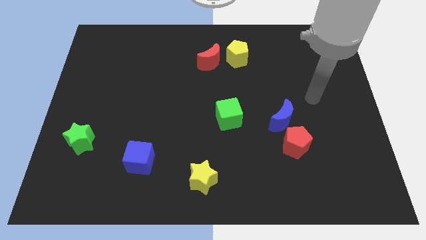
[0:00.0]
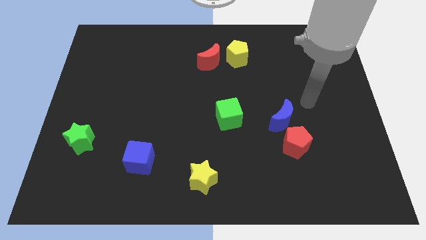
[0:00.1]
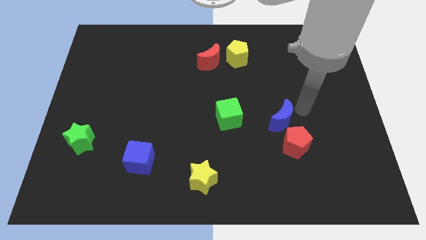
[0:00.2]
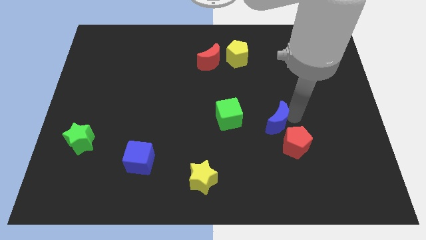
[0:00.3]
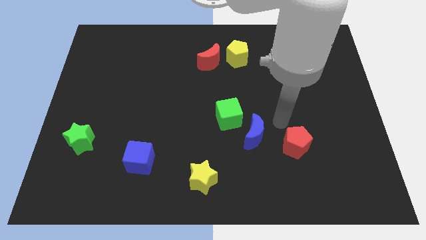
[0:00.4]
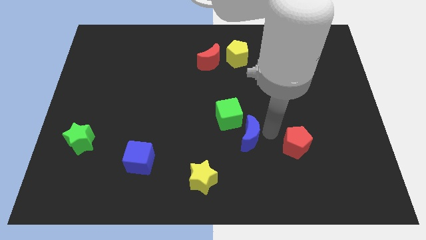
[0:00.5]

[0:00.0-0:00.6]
pull the red pentagon apart from the blue moon

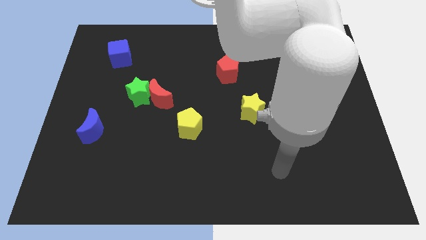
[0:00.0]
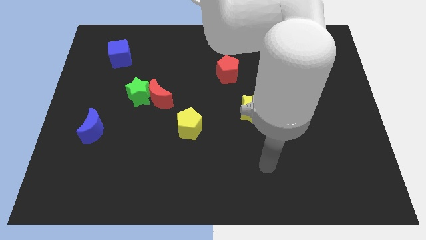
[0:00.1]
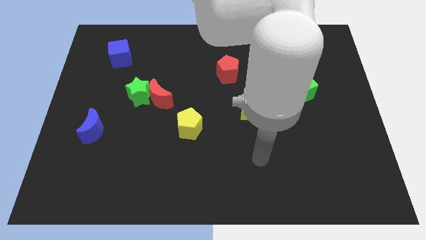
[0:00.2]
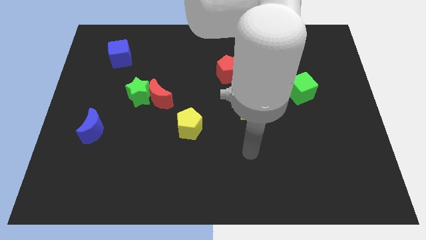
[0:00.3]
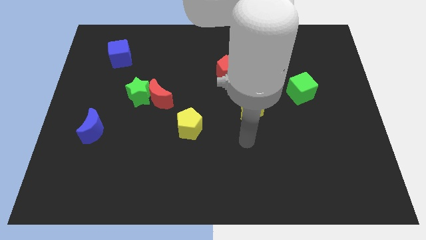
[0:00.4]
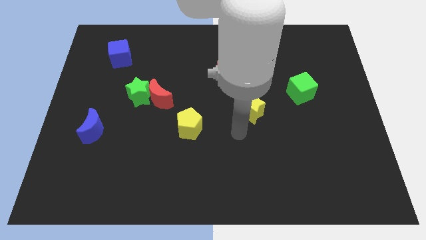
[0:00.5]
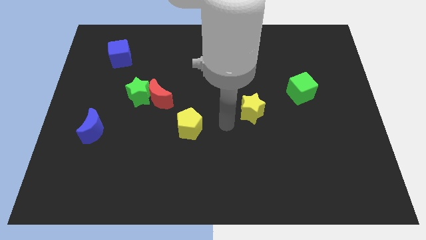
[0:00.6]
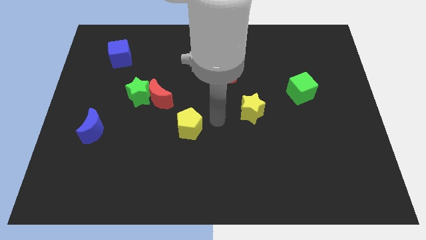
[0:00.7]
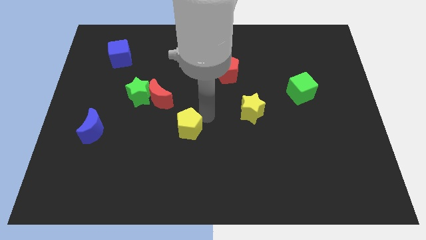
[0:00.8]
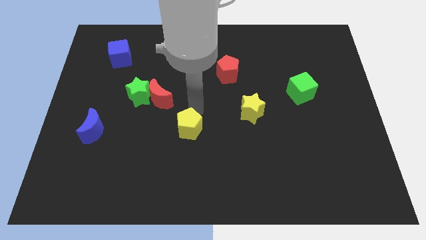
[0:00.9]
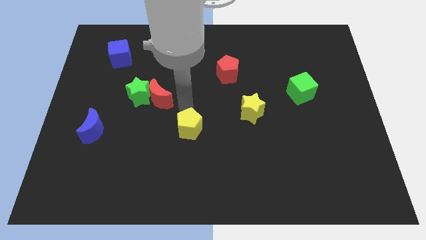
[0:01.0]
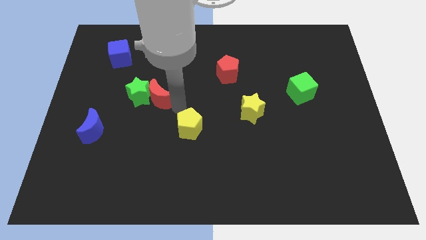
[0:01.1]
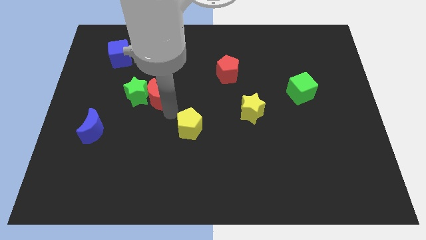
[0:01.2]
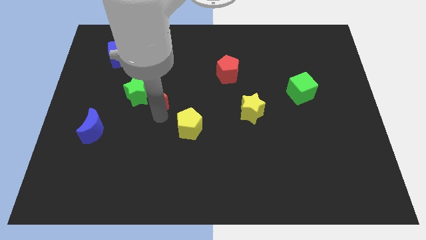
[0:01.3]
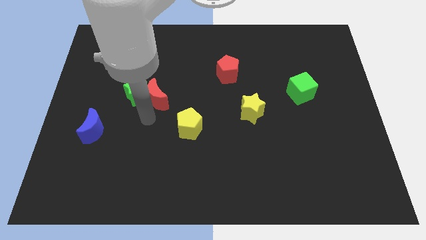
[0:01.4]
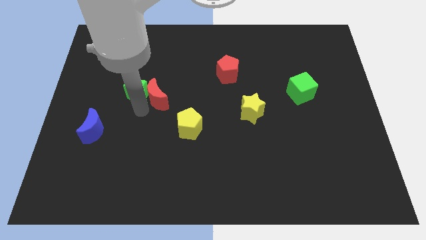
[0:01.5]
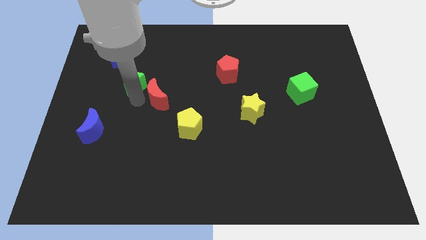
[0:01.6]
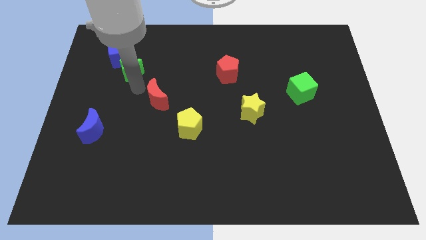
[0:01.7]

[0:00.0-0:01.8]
pull the red moon apart from the green star

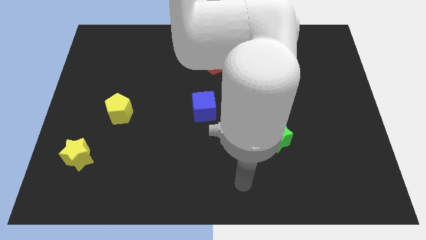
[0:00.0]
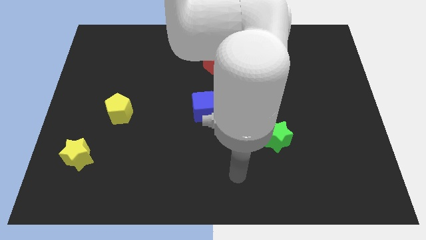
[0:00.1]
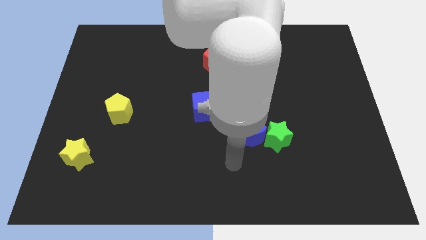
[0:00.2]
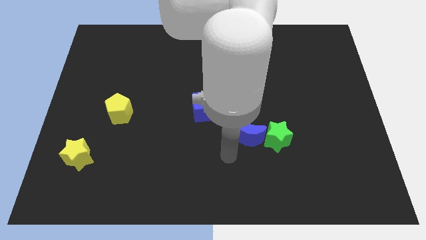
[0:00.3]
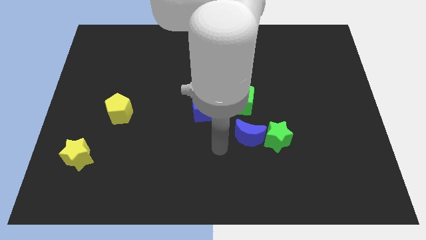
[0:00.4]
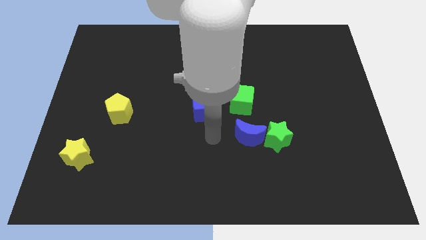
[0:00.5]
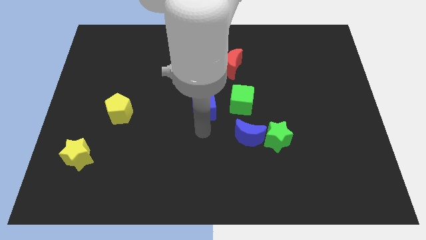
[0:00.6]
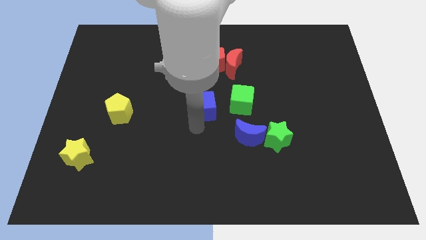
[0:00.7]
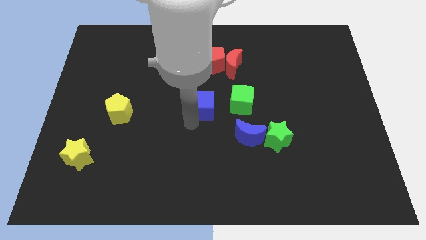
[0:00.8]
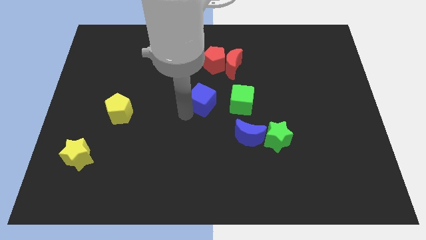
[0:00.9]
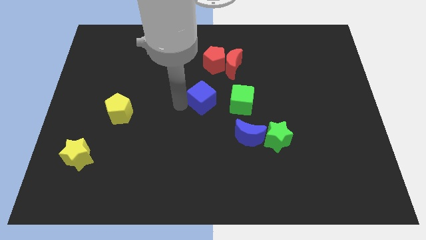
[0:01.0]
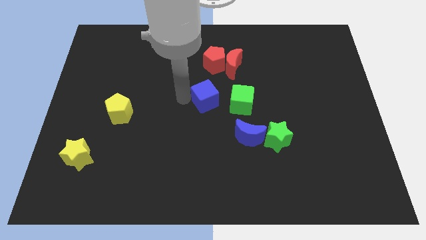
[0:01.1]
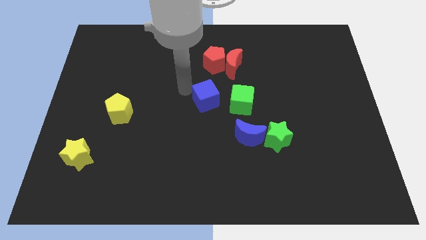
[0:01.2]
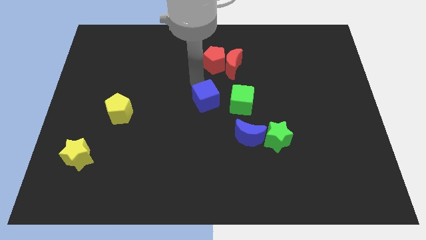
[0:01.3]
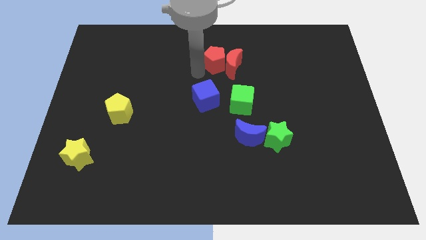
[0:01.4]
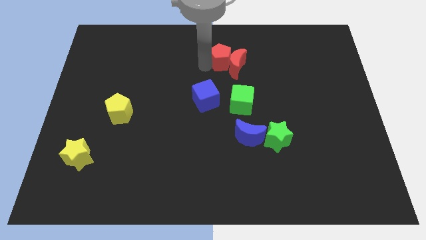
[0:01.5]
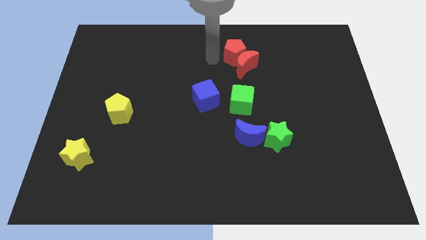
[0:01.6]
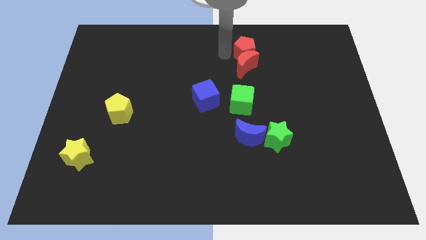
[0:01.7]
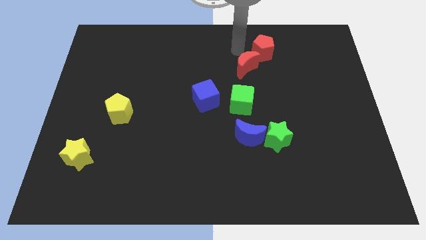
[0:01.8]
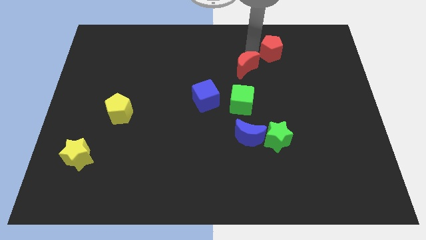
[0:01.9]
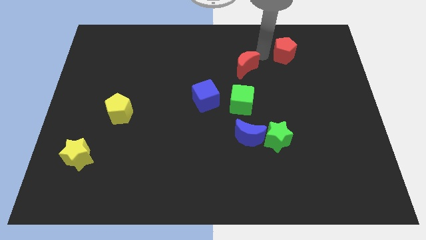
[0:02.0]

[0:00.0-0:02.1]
pull the red moon apart from the red pentagon

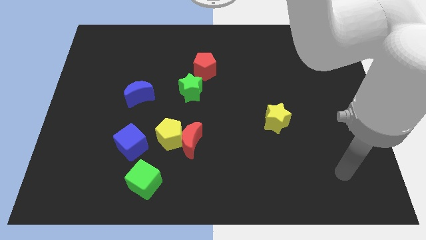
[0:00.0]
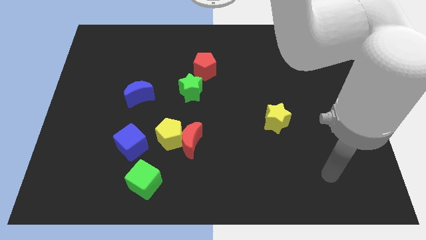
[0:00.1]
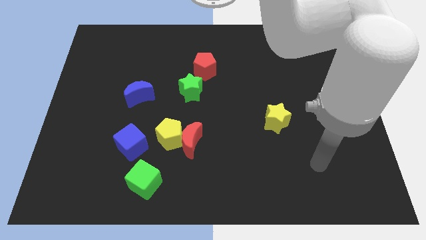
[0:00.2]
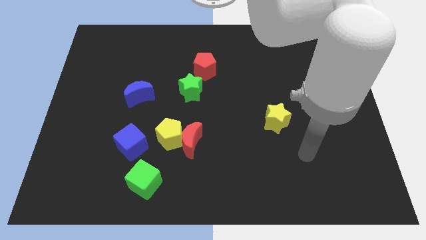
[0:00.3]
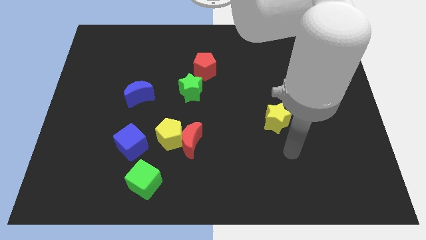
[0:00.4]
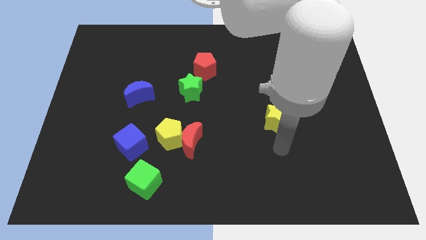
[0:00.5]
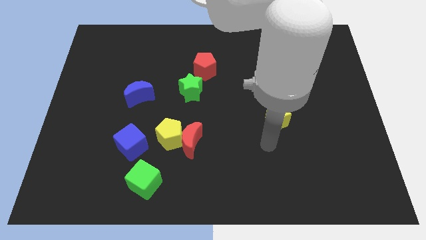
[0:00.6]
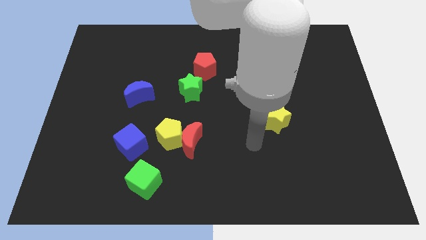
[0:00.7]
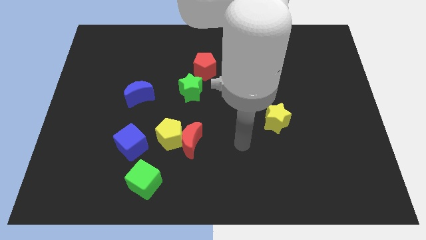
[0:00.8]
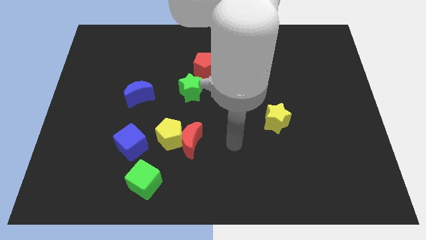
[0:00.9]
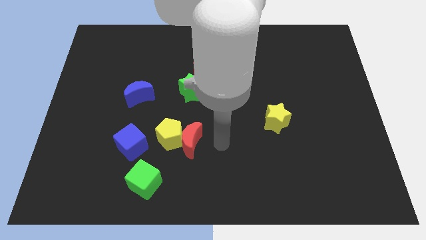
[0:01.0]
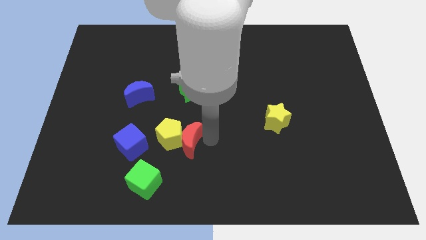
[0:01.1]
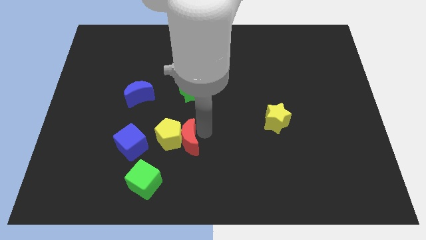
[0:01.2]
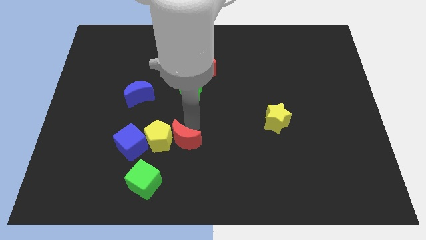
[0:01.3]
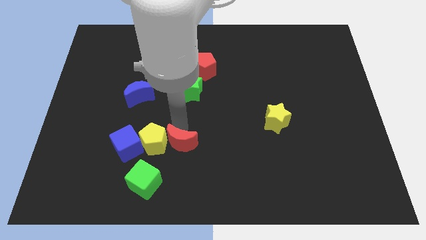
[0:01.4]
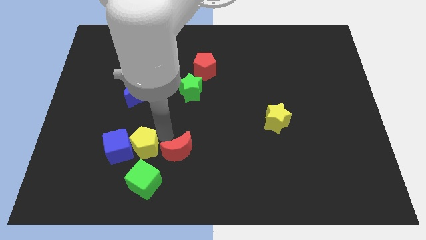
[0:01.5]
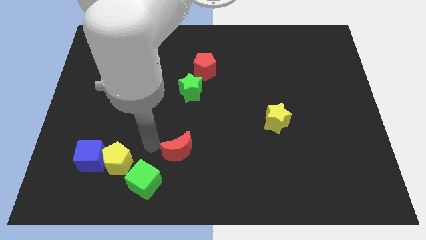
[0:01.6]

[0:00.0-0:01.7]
move the red moon away from the yellow pentagon

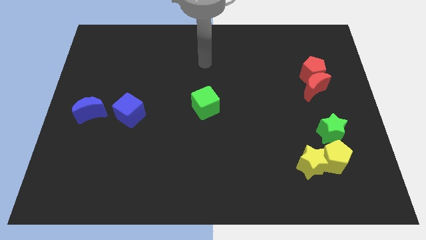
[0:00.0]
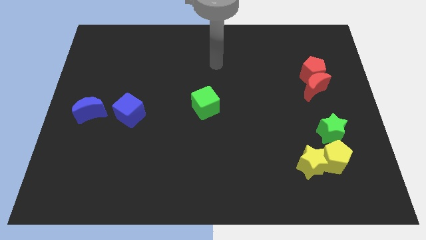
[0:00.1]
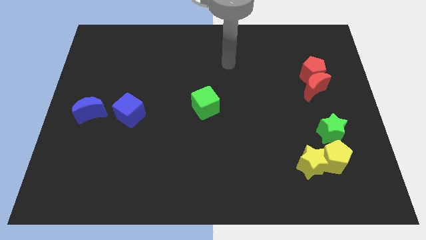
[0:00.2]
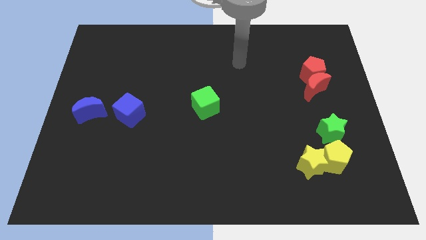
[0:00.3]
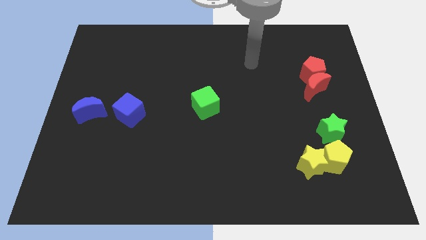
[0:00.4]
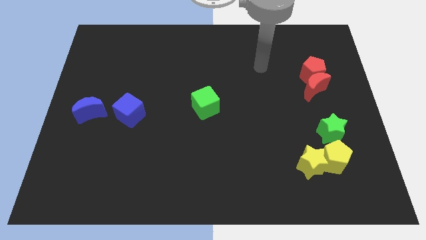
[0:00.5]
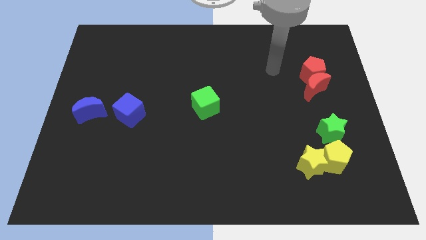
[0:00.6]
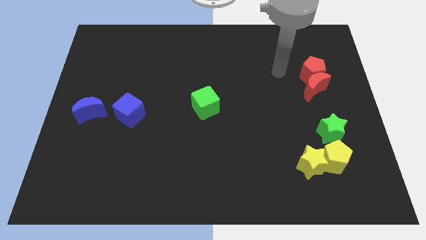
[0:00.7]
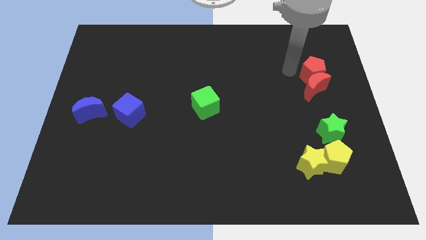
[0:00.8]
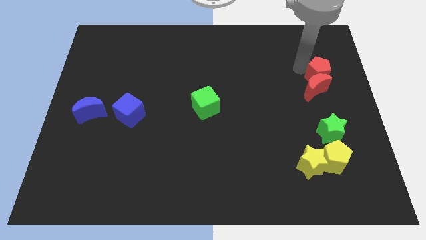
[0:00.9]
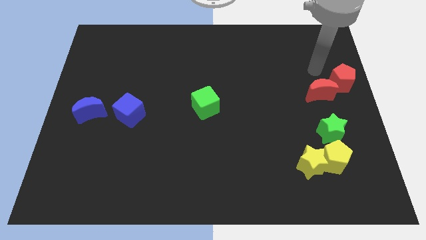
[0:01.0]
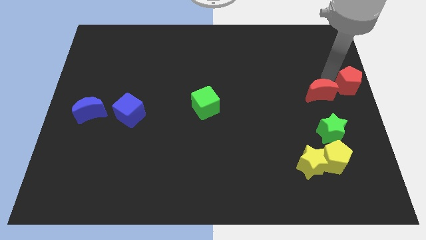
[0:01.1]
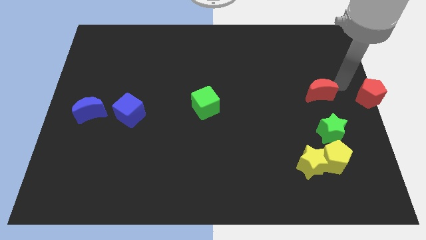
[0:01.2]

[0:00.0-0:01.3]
move the red moon away from the red pentagon

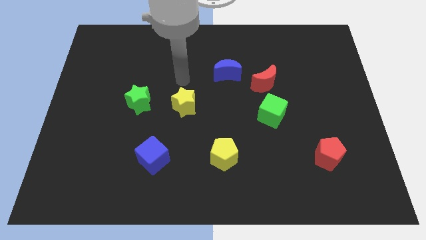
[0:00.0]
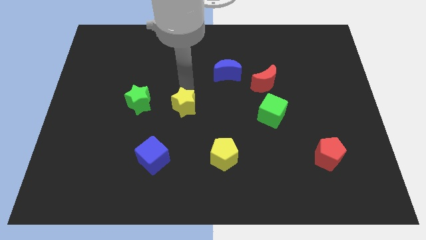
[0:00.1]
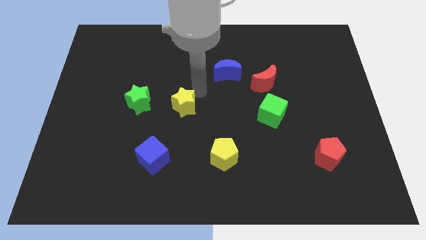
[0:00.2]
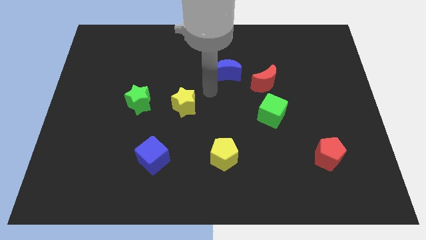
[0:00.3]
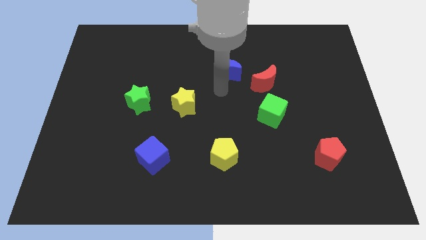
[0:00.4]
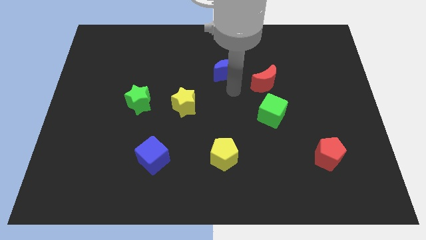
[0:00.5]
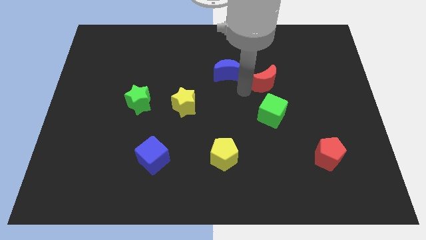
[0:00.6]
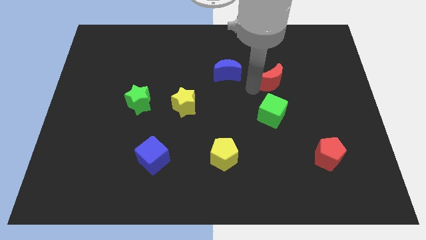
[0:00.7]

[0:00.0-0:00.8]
move the green cube away from the red moon

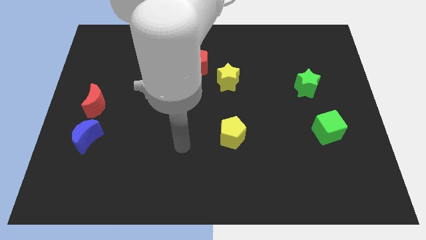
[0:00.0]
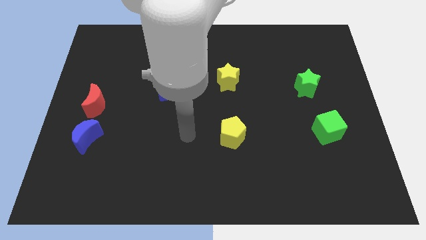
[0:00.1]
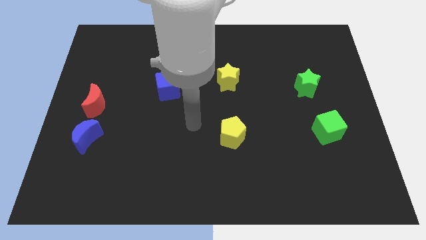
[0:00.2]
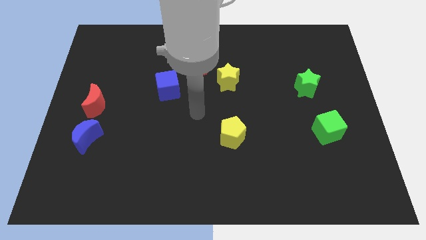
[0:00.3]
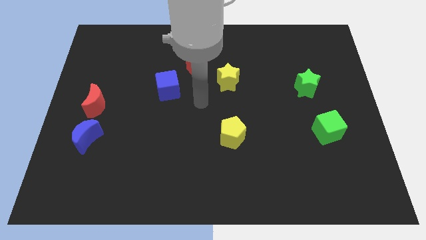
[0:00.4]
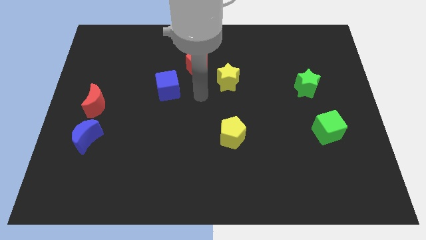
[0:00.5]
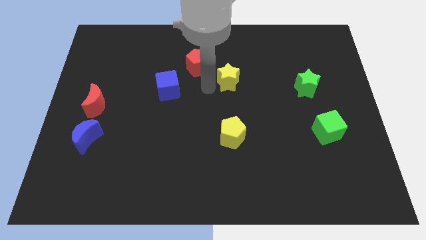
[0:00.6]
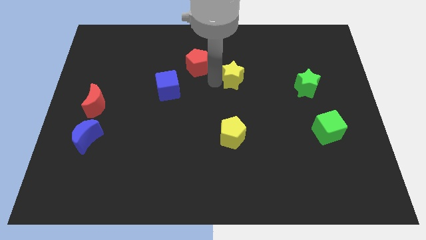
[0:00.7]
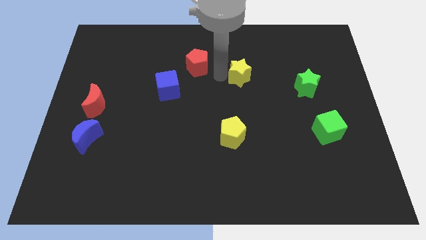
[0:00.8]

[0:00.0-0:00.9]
separate the red pentagon from the yellow star

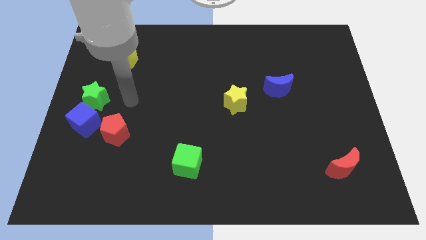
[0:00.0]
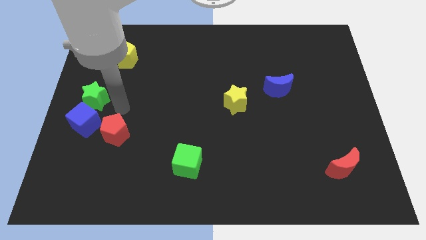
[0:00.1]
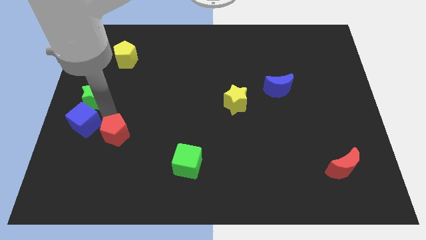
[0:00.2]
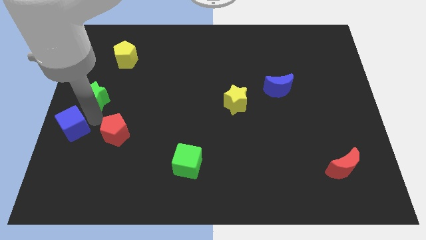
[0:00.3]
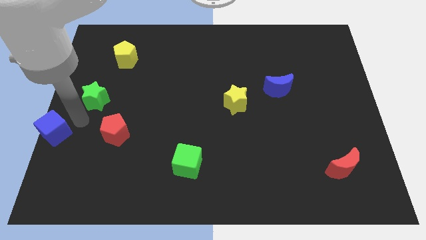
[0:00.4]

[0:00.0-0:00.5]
separate the green star from the blue cube
